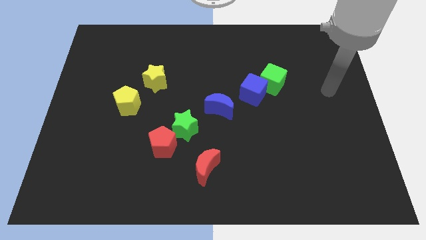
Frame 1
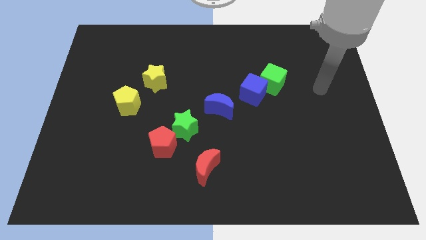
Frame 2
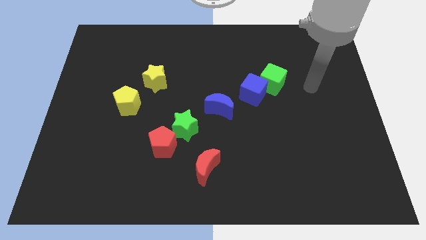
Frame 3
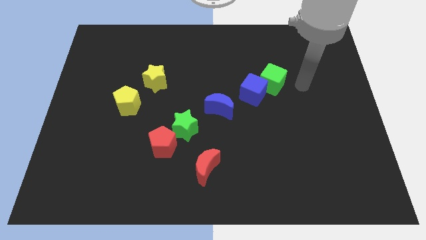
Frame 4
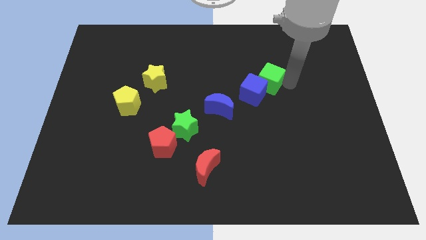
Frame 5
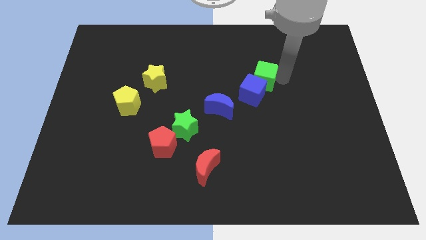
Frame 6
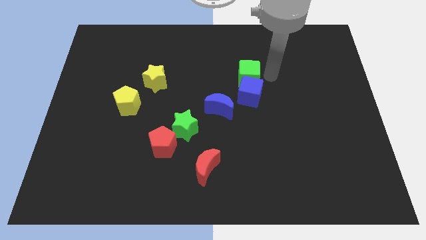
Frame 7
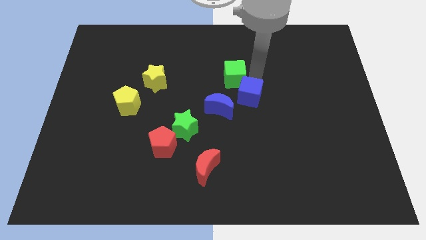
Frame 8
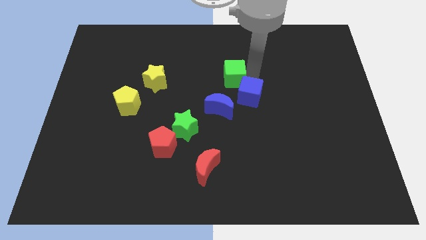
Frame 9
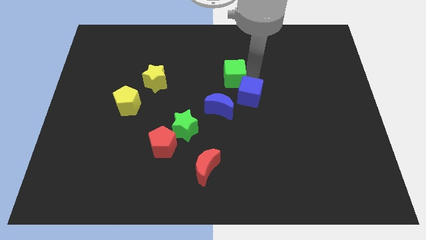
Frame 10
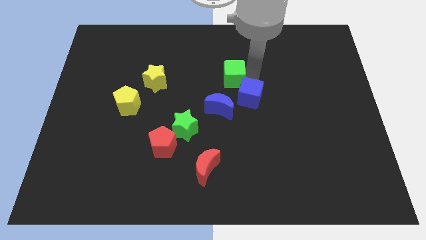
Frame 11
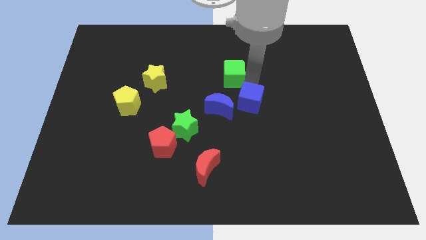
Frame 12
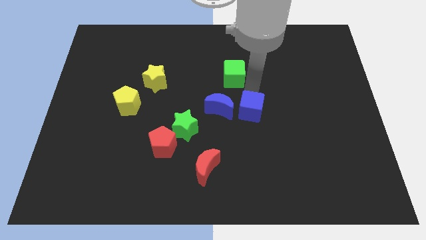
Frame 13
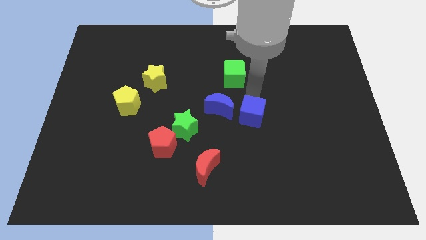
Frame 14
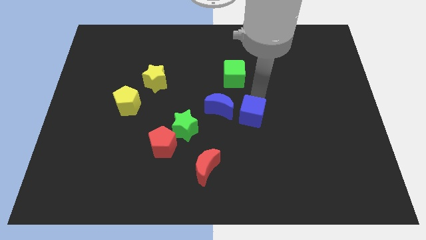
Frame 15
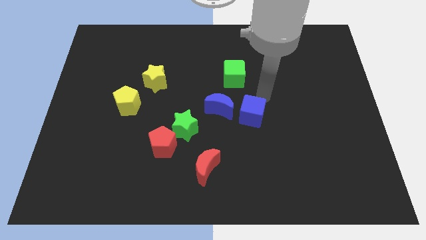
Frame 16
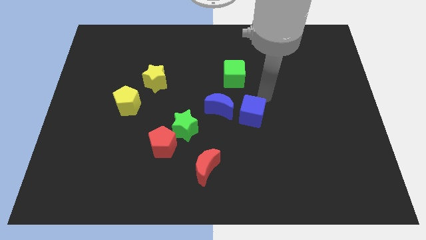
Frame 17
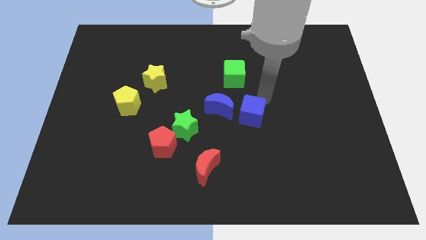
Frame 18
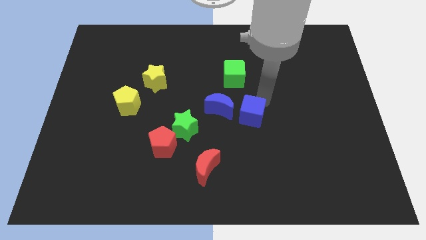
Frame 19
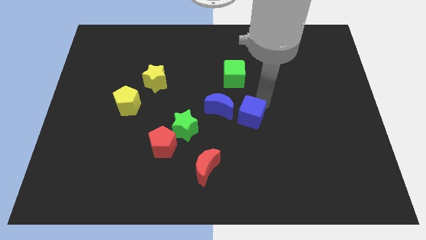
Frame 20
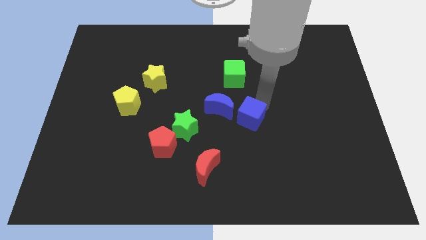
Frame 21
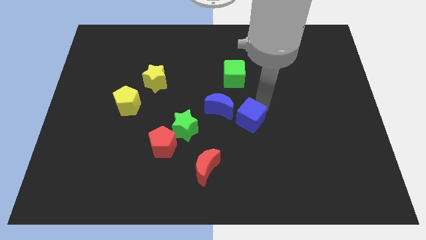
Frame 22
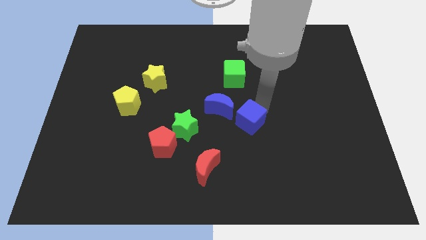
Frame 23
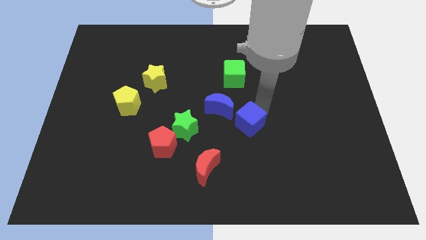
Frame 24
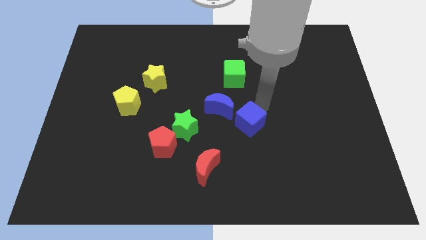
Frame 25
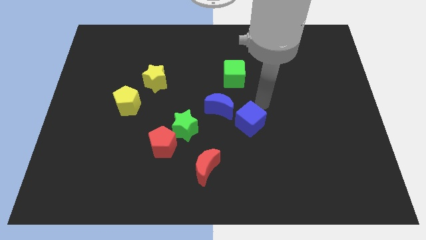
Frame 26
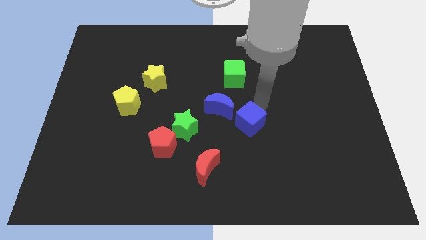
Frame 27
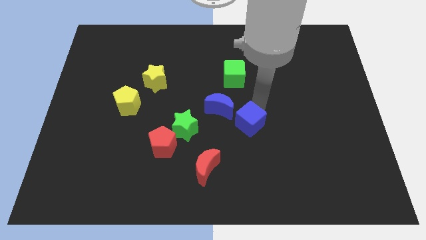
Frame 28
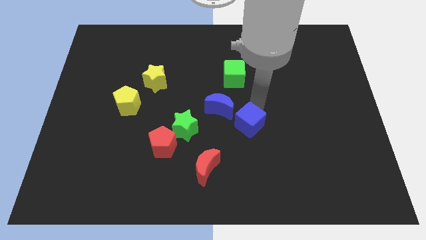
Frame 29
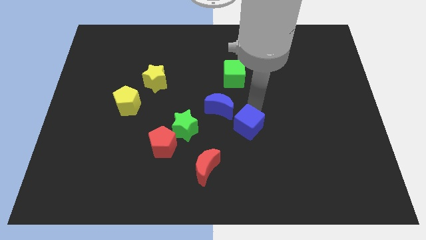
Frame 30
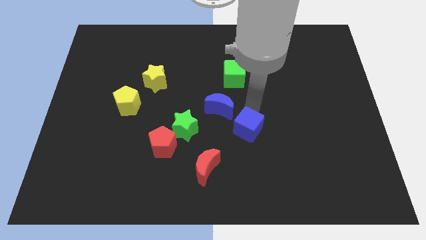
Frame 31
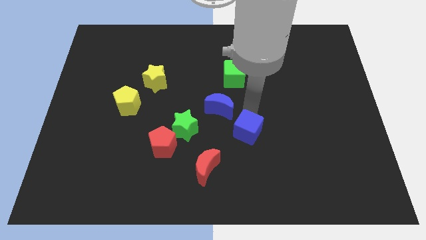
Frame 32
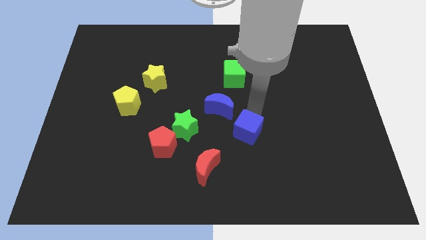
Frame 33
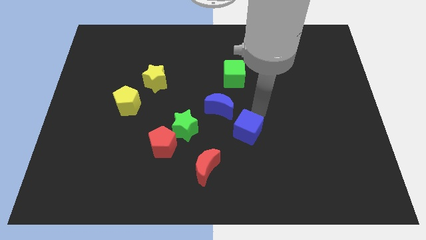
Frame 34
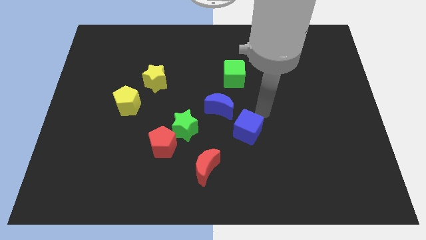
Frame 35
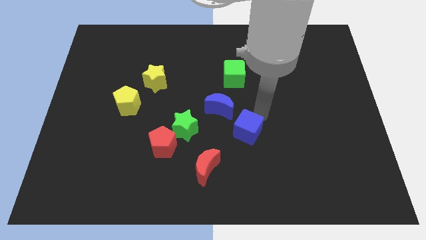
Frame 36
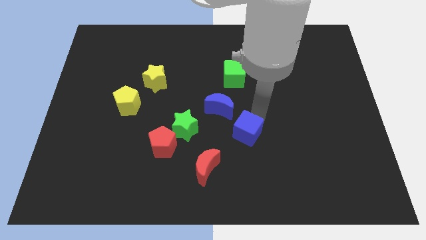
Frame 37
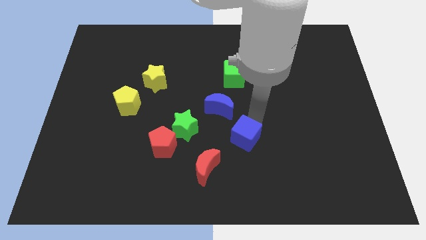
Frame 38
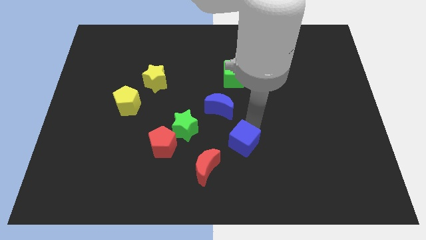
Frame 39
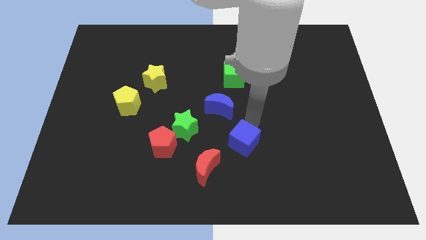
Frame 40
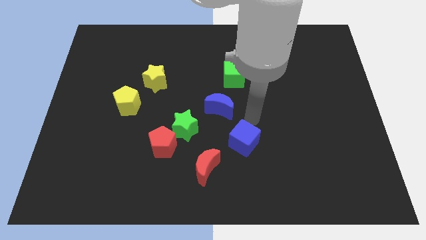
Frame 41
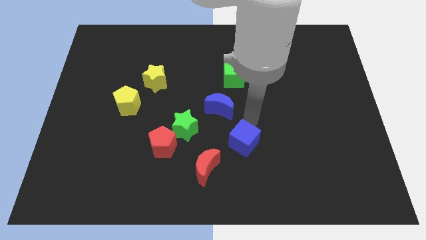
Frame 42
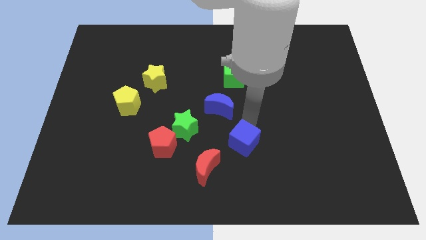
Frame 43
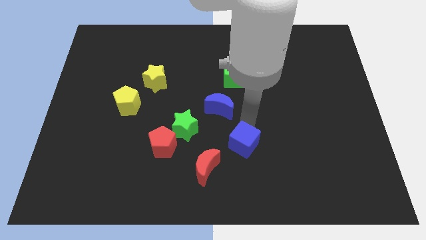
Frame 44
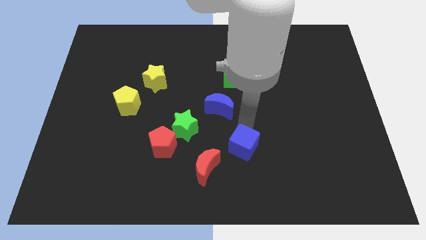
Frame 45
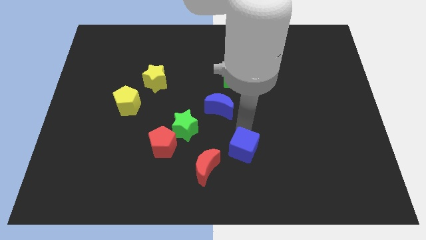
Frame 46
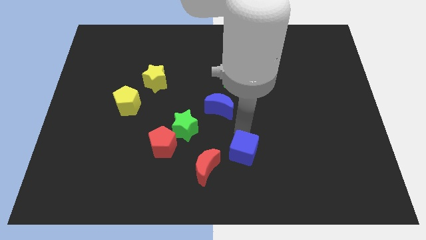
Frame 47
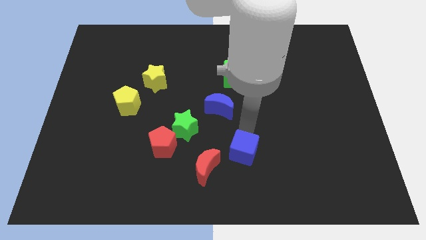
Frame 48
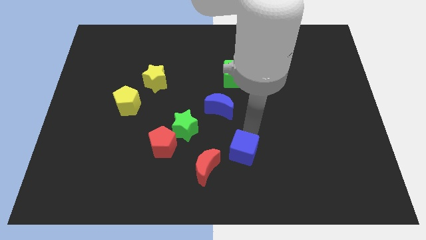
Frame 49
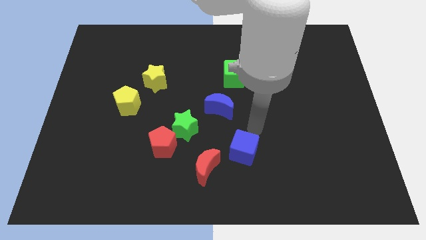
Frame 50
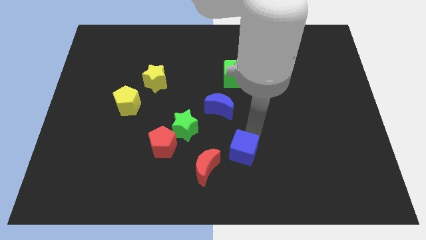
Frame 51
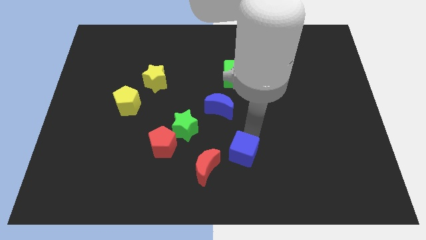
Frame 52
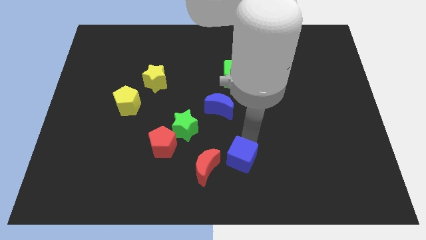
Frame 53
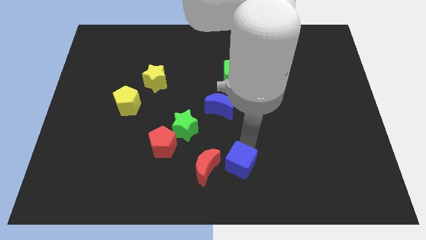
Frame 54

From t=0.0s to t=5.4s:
move the blue cube to the bottom

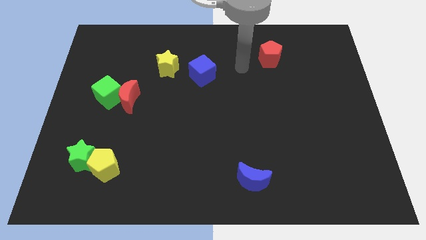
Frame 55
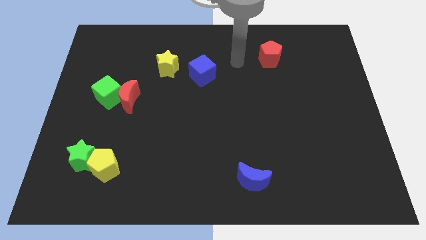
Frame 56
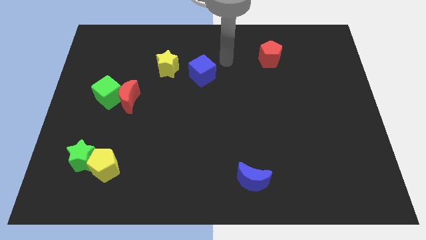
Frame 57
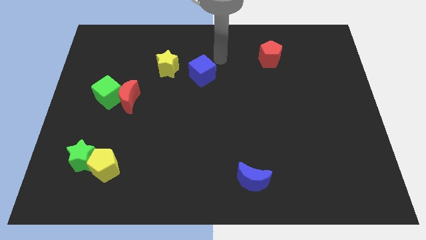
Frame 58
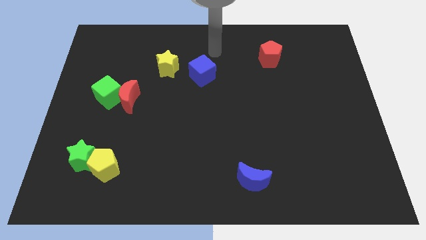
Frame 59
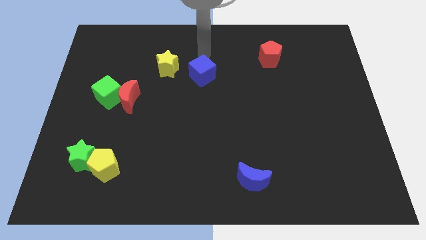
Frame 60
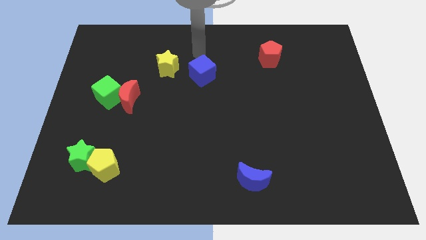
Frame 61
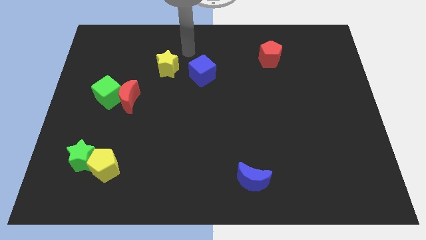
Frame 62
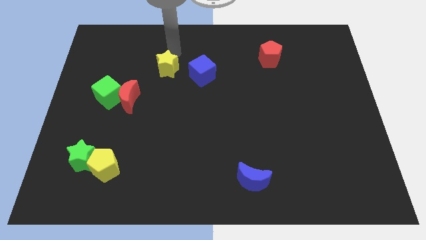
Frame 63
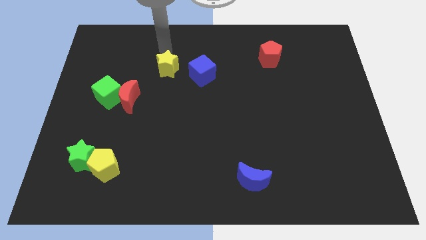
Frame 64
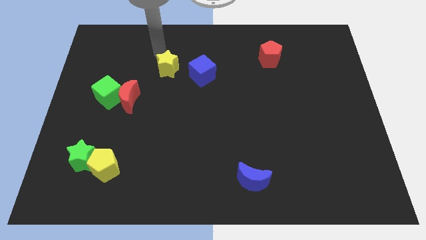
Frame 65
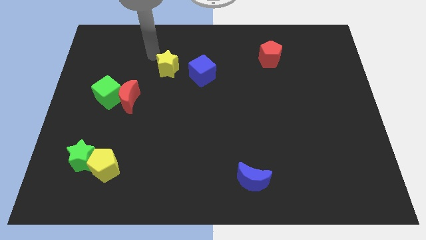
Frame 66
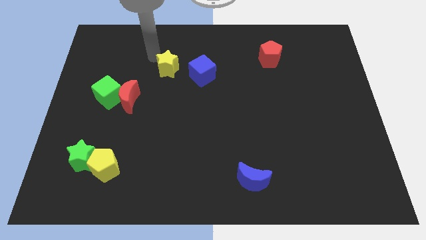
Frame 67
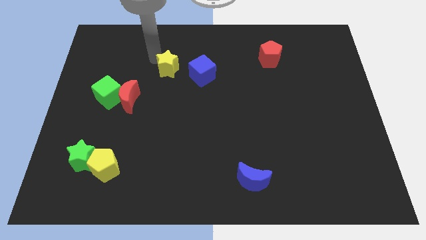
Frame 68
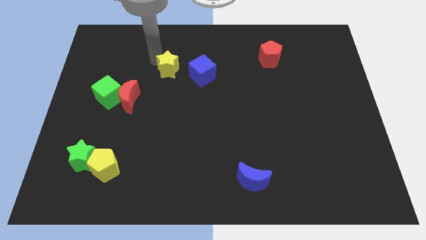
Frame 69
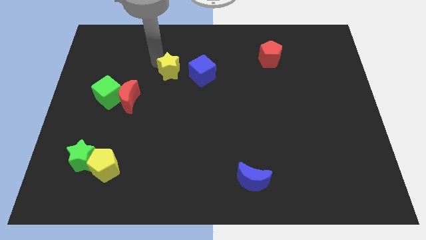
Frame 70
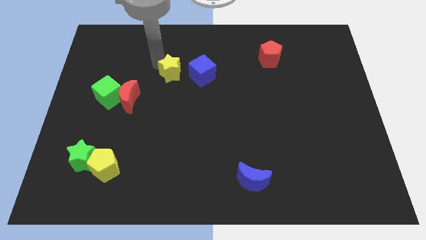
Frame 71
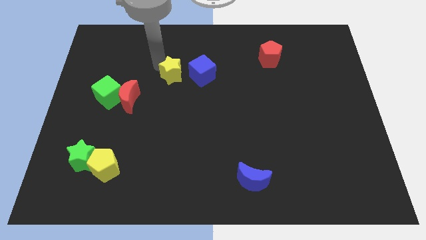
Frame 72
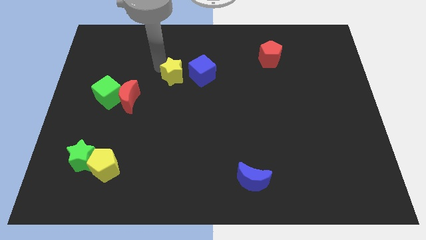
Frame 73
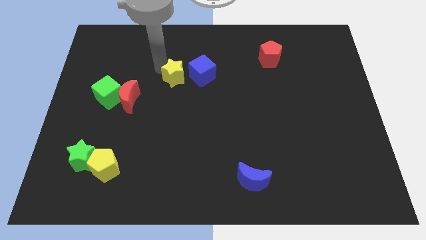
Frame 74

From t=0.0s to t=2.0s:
move the yellow star to the center
